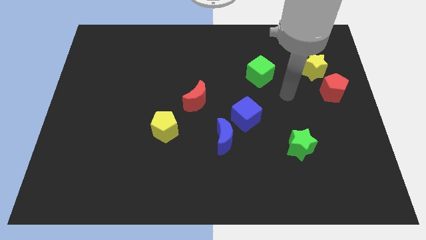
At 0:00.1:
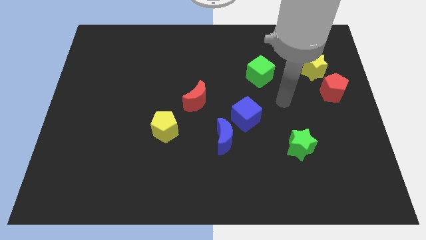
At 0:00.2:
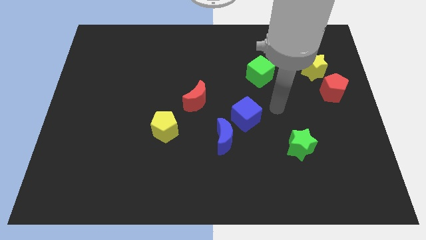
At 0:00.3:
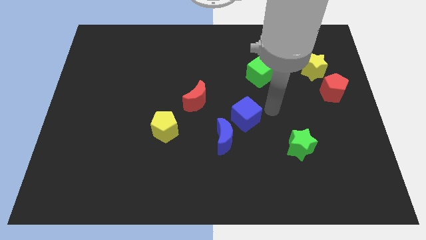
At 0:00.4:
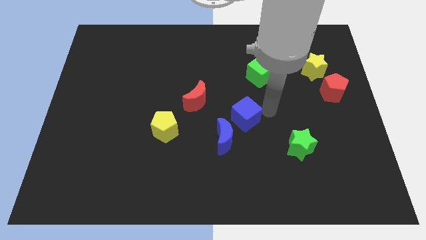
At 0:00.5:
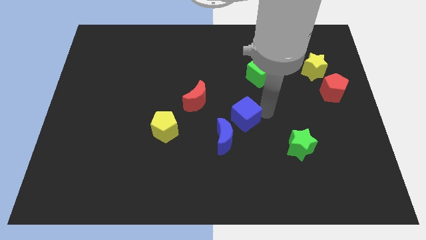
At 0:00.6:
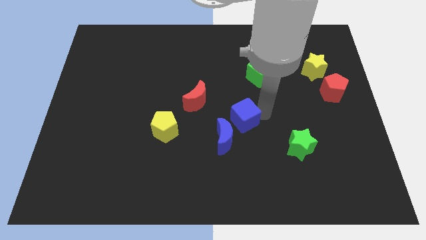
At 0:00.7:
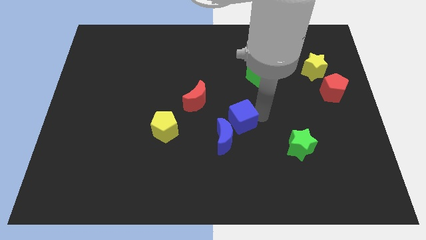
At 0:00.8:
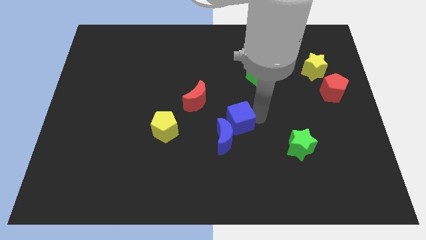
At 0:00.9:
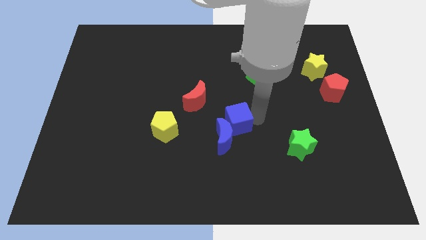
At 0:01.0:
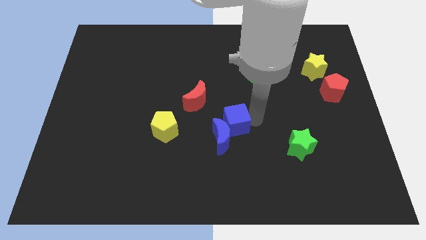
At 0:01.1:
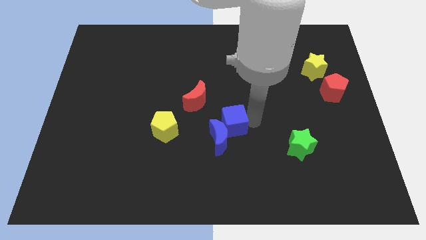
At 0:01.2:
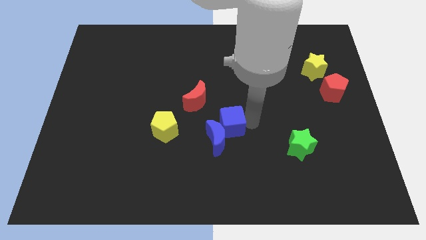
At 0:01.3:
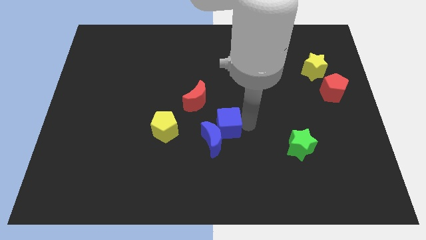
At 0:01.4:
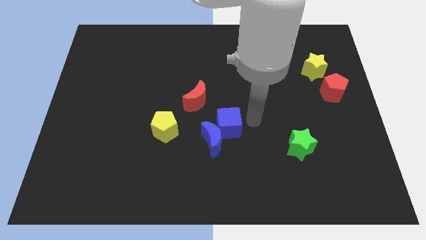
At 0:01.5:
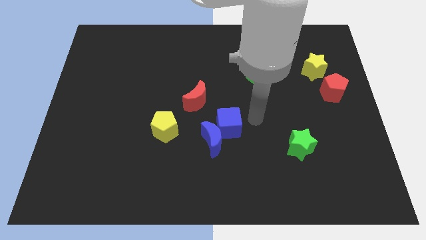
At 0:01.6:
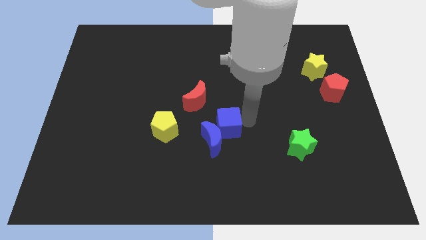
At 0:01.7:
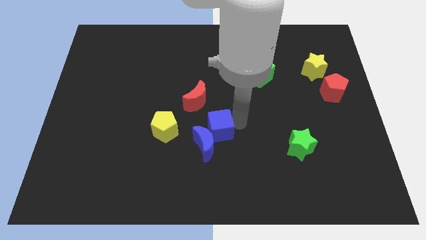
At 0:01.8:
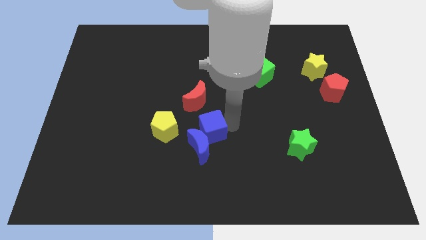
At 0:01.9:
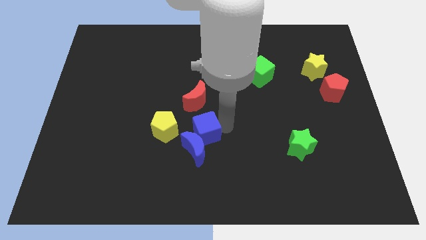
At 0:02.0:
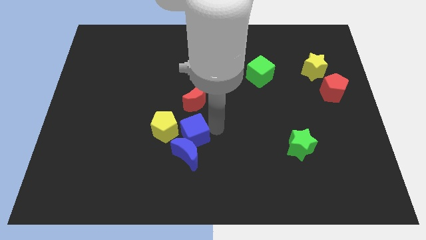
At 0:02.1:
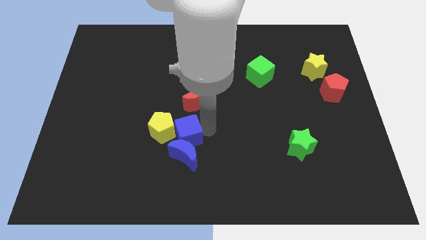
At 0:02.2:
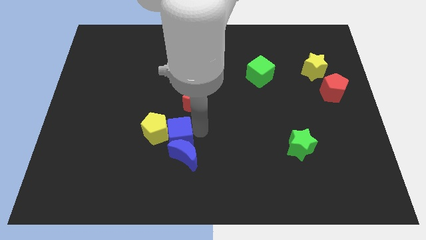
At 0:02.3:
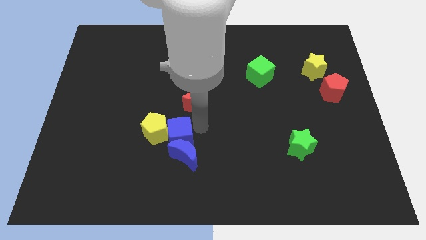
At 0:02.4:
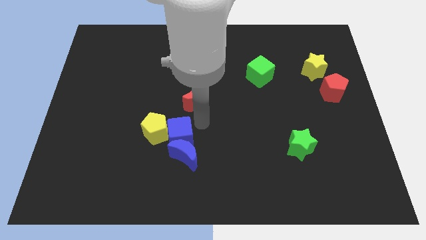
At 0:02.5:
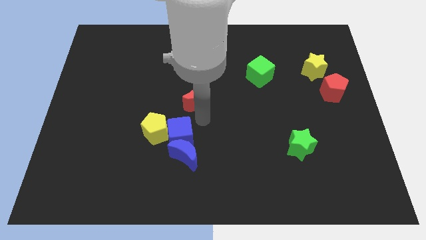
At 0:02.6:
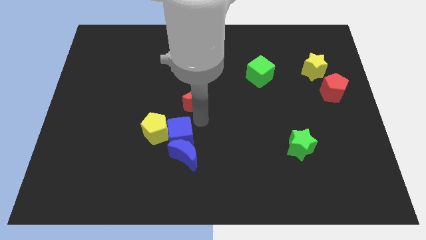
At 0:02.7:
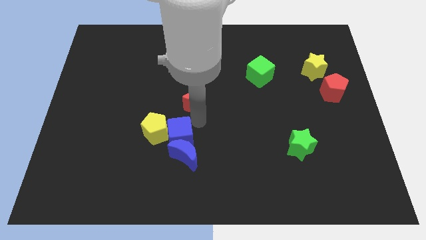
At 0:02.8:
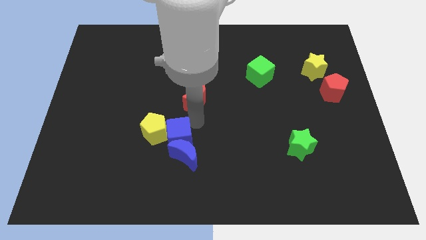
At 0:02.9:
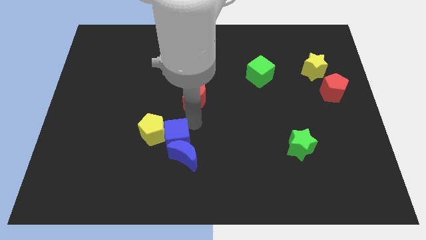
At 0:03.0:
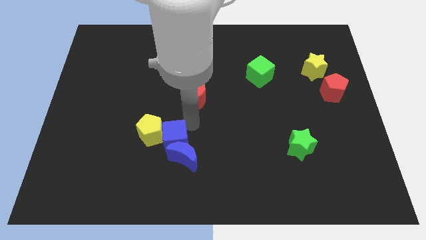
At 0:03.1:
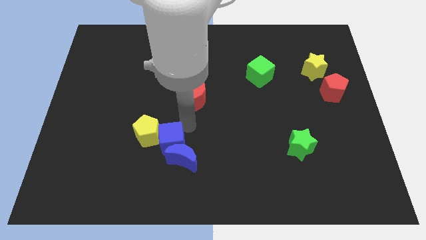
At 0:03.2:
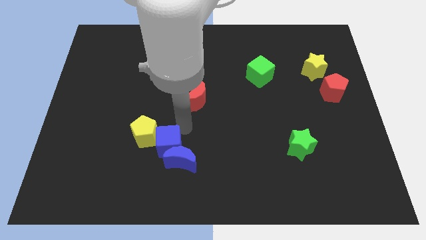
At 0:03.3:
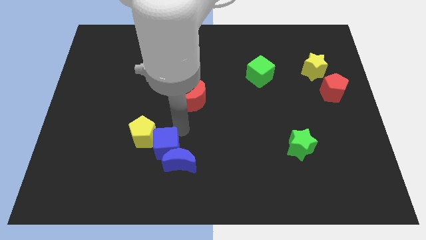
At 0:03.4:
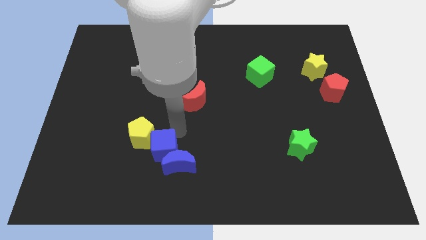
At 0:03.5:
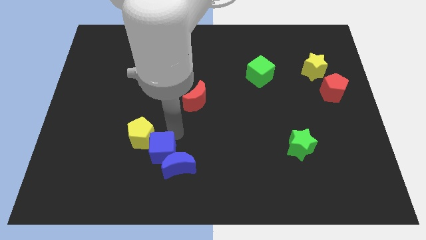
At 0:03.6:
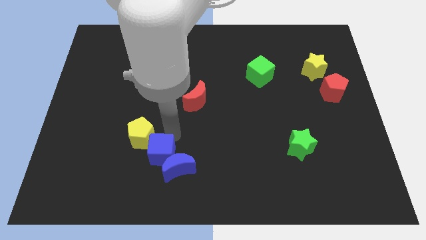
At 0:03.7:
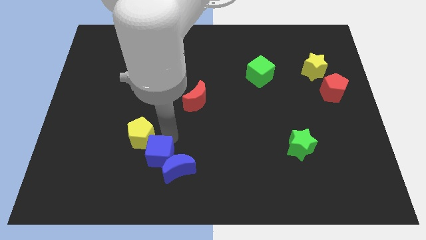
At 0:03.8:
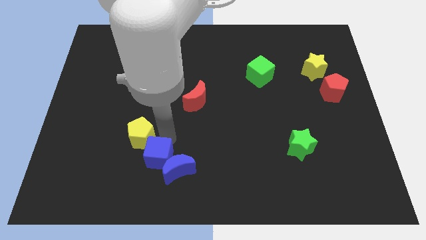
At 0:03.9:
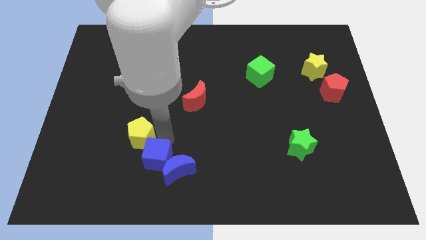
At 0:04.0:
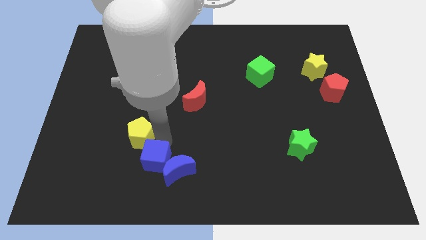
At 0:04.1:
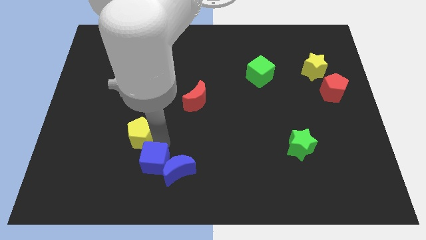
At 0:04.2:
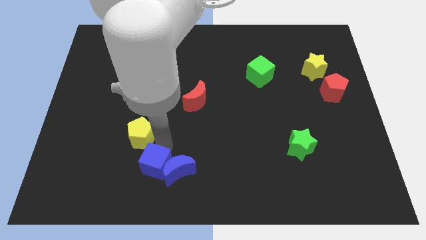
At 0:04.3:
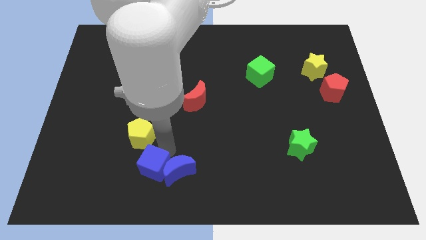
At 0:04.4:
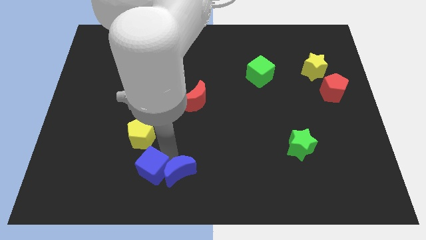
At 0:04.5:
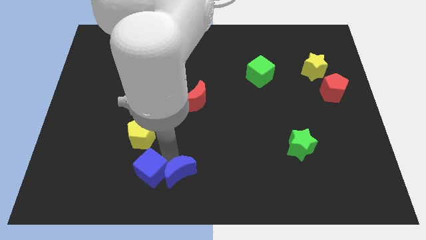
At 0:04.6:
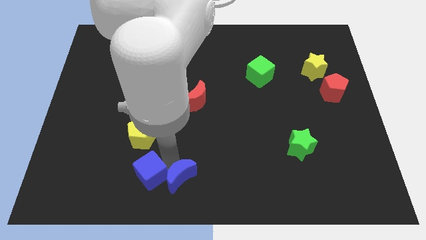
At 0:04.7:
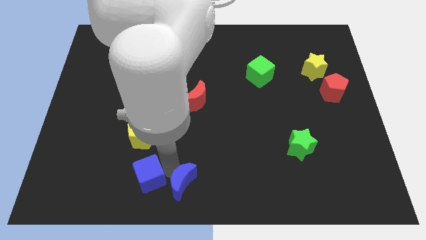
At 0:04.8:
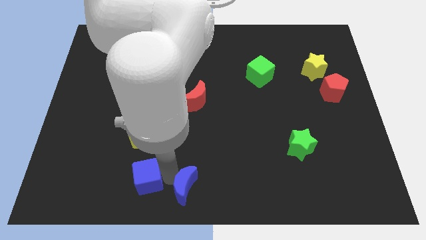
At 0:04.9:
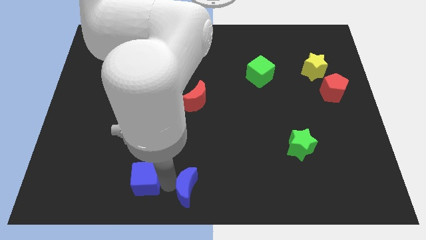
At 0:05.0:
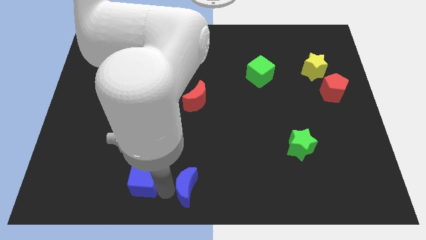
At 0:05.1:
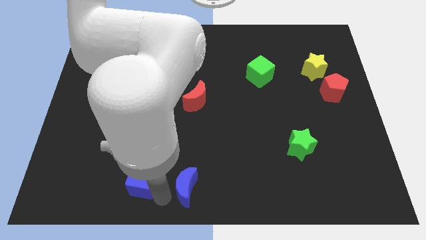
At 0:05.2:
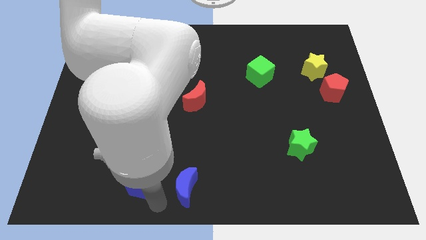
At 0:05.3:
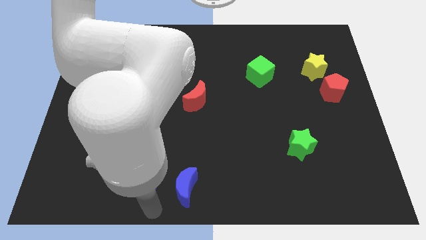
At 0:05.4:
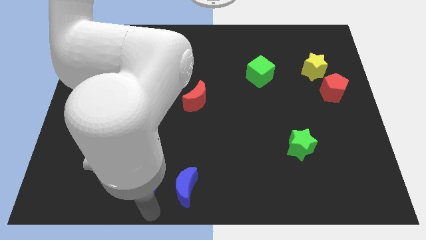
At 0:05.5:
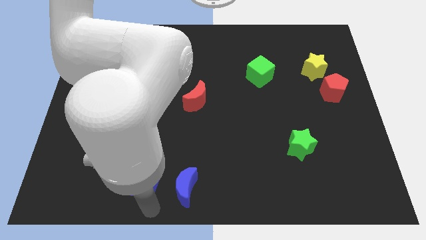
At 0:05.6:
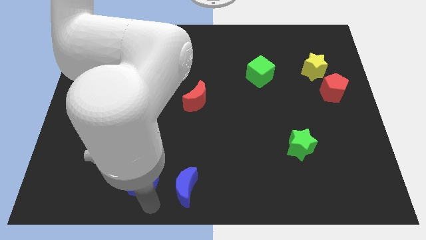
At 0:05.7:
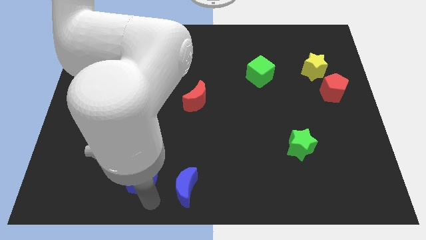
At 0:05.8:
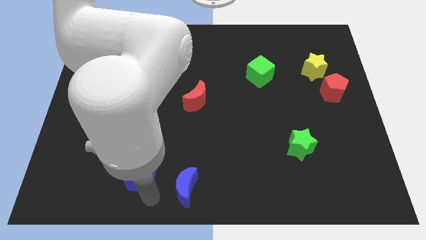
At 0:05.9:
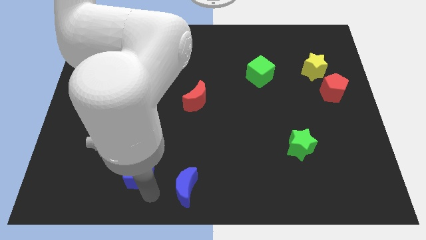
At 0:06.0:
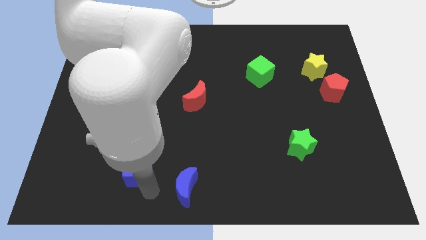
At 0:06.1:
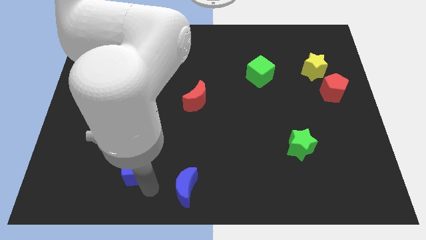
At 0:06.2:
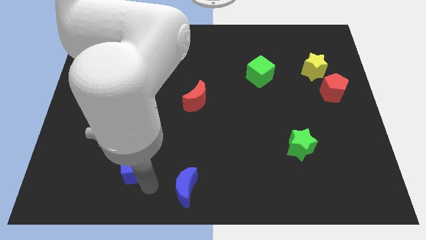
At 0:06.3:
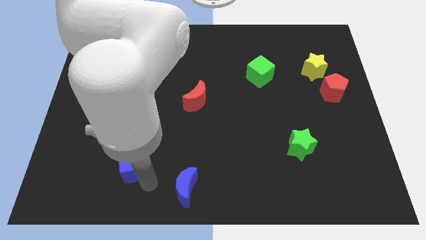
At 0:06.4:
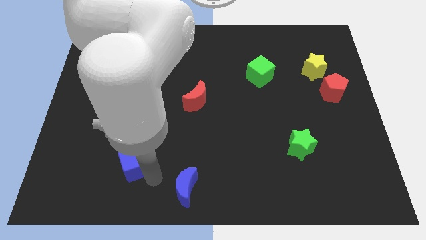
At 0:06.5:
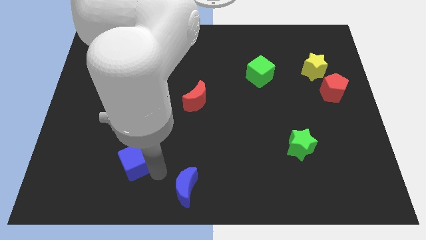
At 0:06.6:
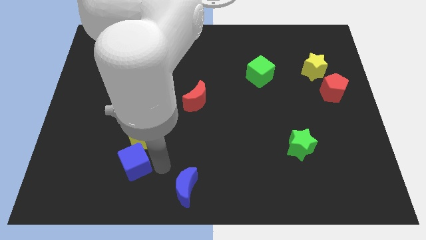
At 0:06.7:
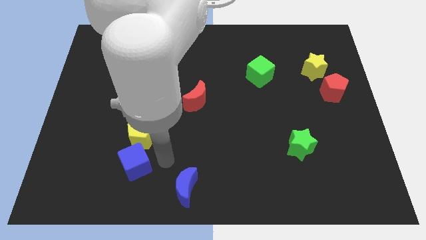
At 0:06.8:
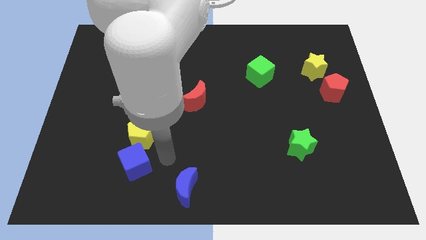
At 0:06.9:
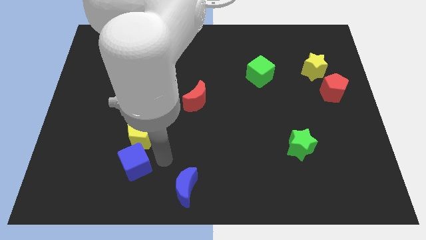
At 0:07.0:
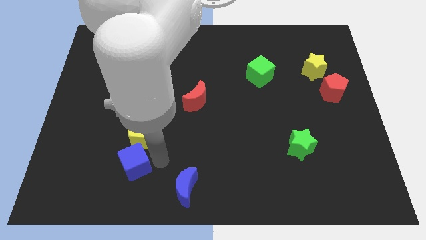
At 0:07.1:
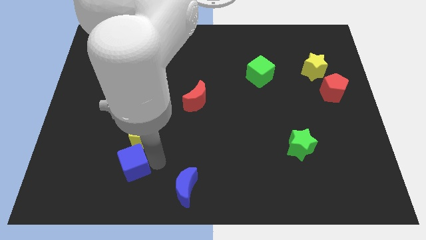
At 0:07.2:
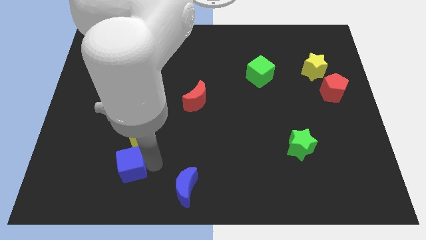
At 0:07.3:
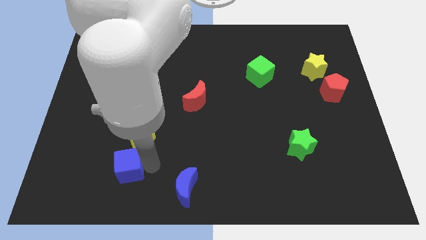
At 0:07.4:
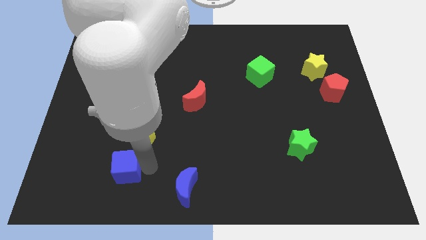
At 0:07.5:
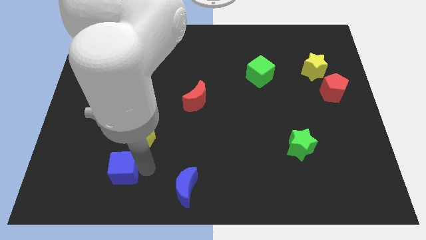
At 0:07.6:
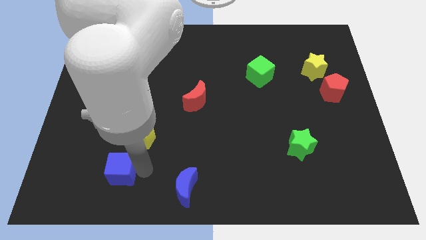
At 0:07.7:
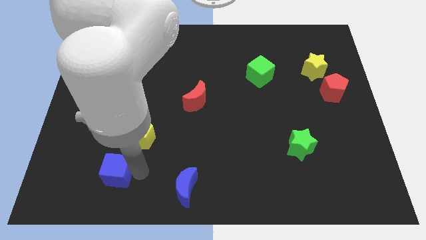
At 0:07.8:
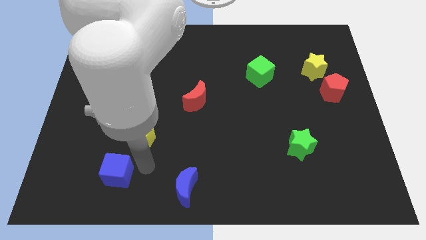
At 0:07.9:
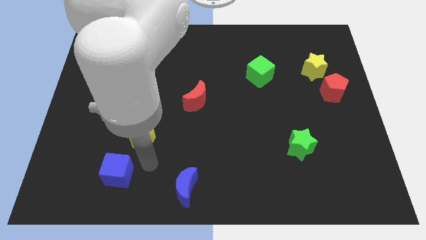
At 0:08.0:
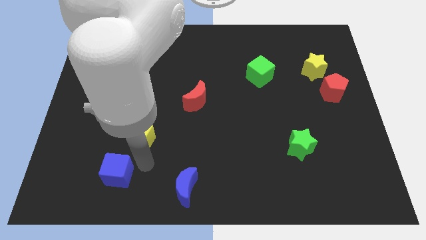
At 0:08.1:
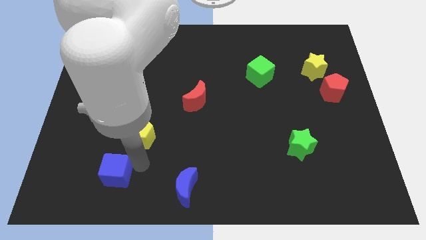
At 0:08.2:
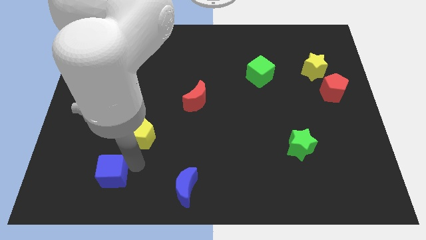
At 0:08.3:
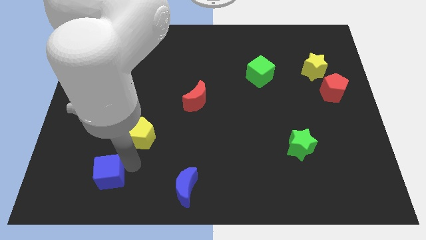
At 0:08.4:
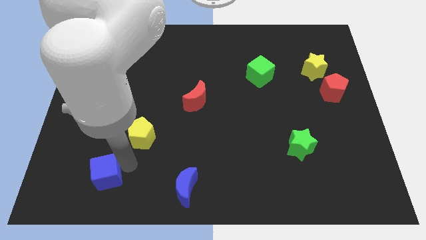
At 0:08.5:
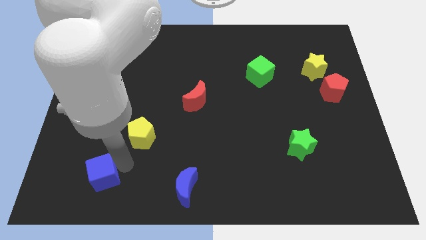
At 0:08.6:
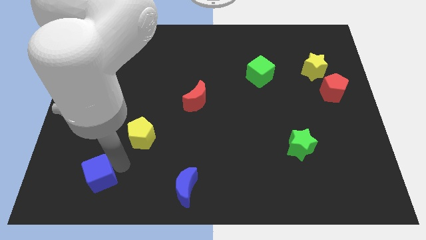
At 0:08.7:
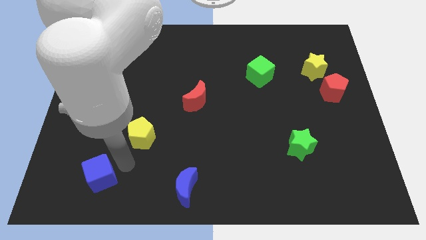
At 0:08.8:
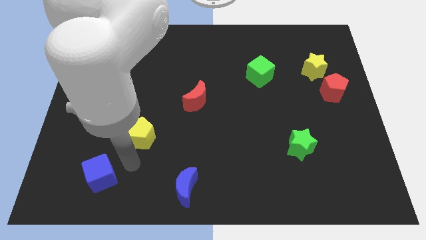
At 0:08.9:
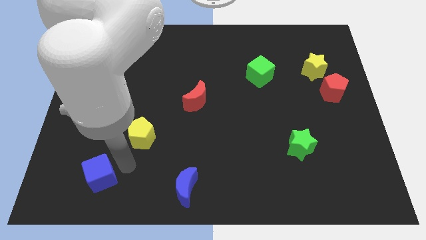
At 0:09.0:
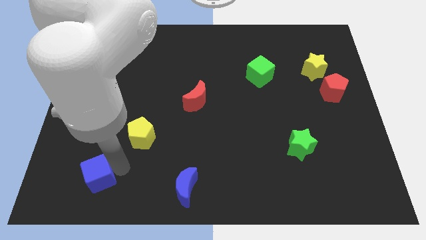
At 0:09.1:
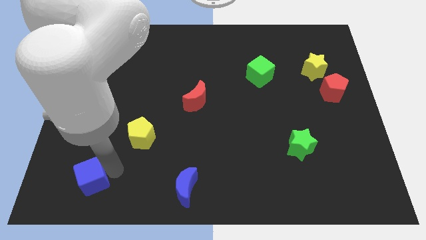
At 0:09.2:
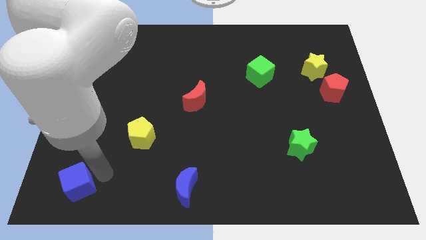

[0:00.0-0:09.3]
move the blue cube to the bottom left
